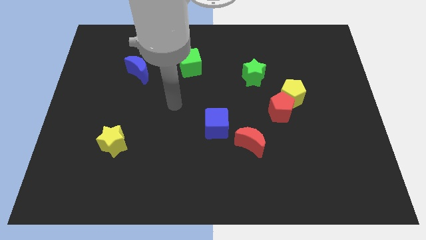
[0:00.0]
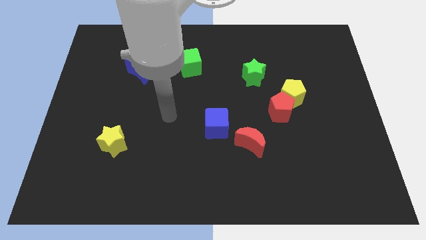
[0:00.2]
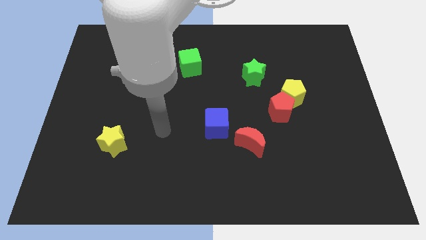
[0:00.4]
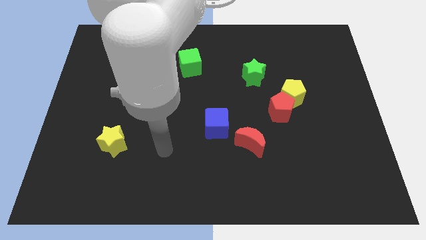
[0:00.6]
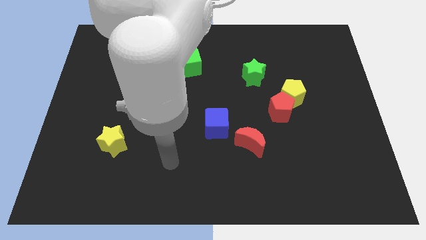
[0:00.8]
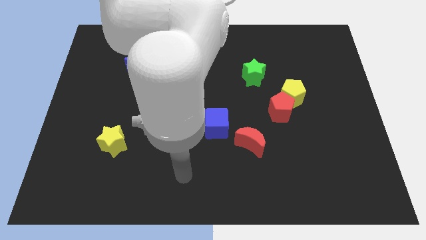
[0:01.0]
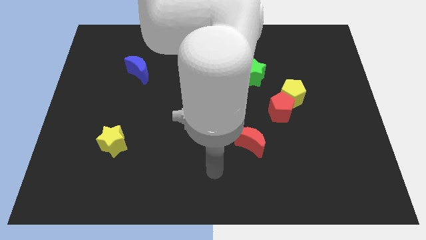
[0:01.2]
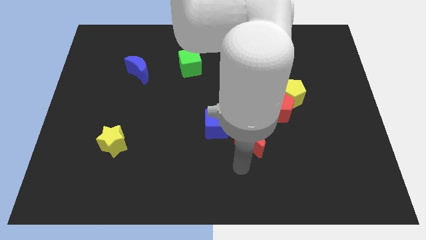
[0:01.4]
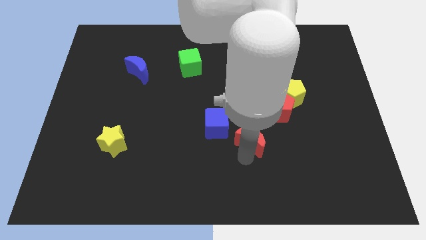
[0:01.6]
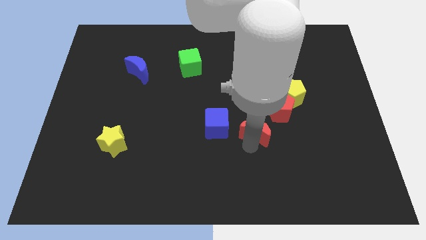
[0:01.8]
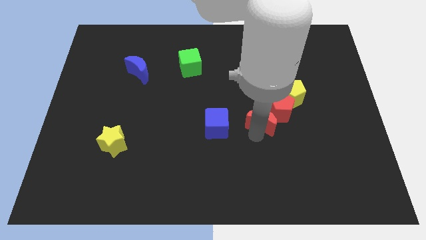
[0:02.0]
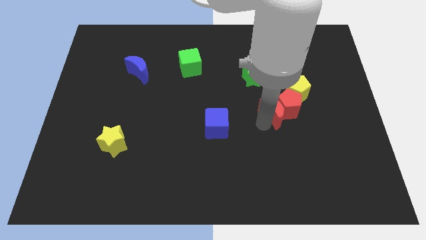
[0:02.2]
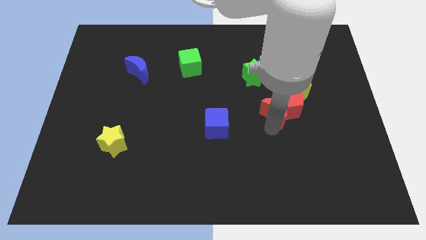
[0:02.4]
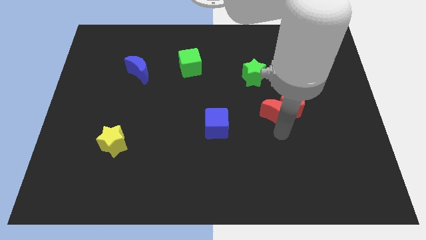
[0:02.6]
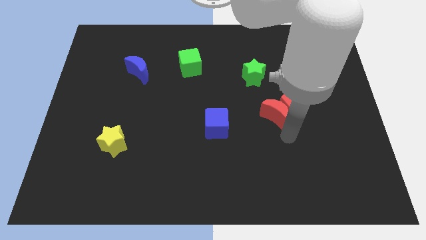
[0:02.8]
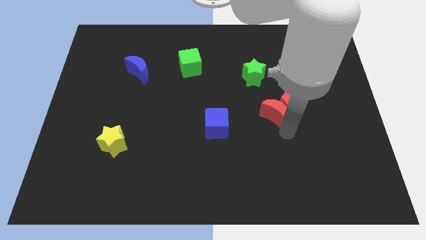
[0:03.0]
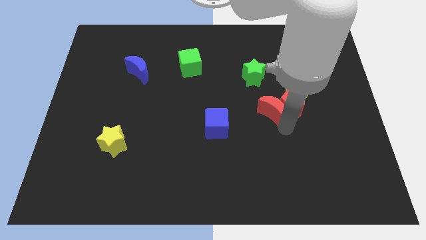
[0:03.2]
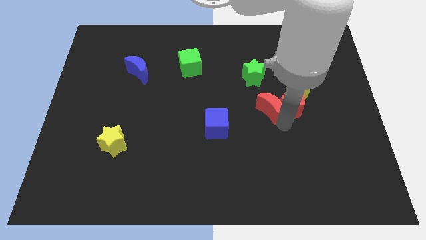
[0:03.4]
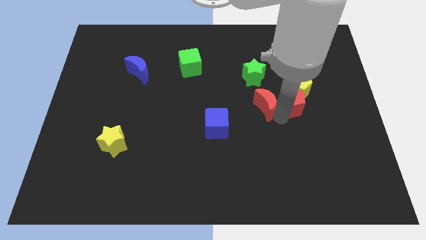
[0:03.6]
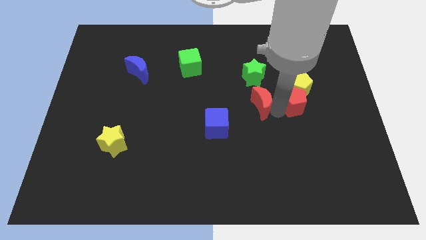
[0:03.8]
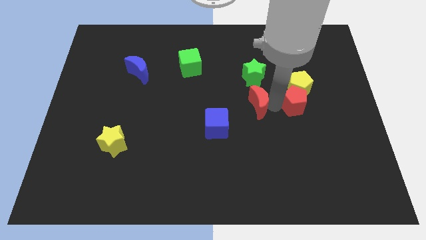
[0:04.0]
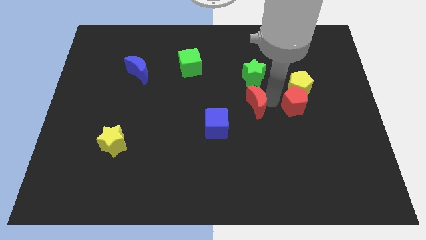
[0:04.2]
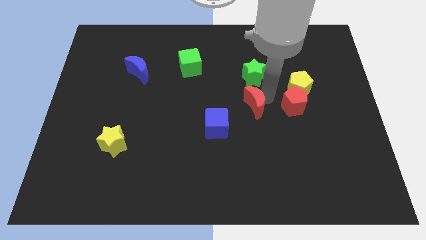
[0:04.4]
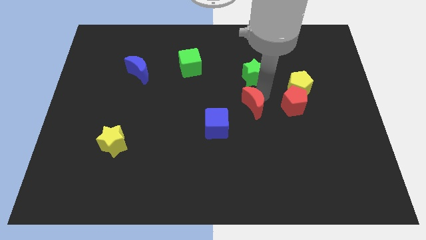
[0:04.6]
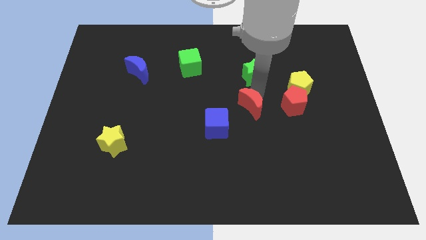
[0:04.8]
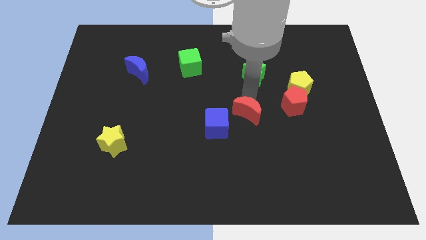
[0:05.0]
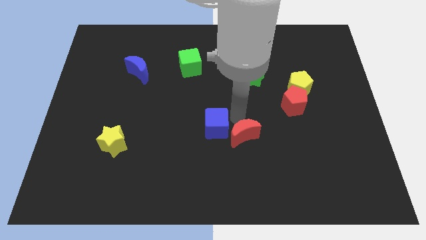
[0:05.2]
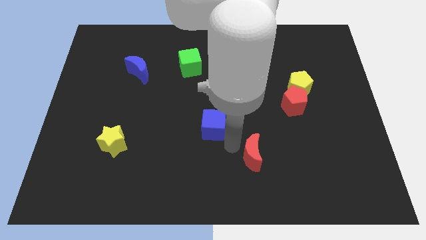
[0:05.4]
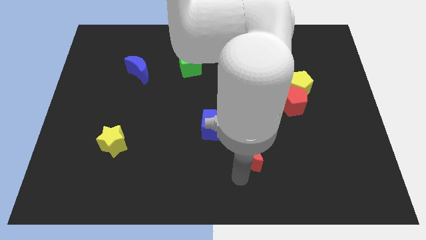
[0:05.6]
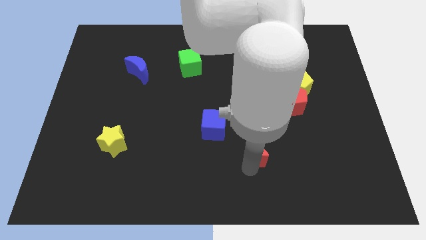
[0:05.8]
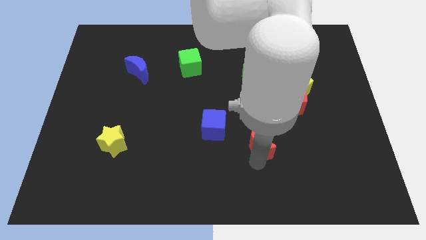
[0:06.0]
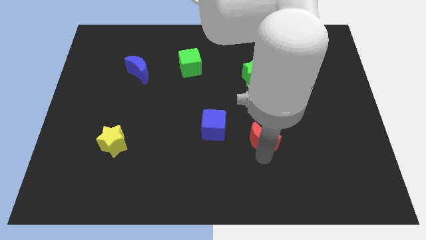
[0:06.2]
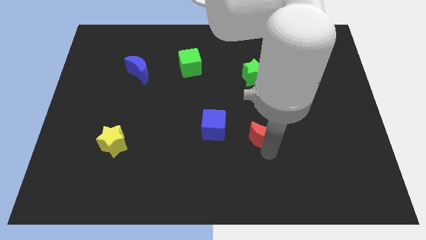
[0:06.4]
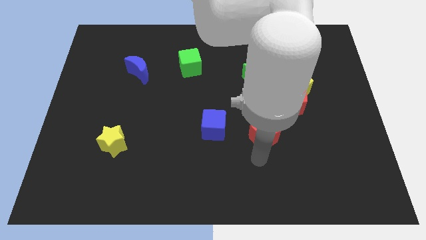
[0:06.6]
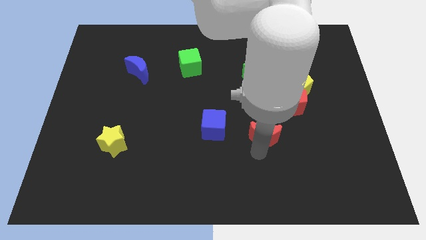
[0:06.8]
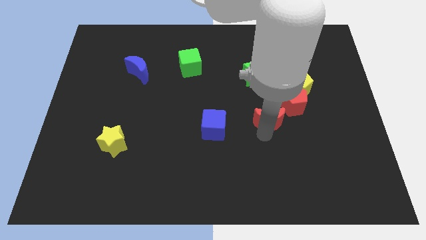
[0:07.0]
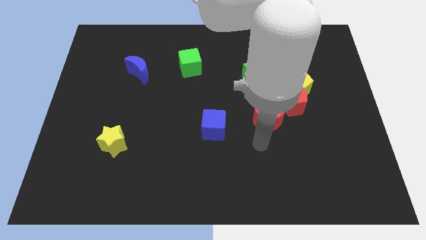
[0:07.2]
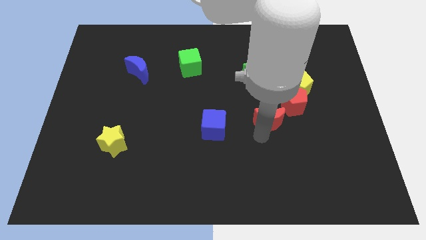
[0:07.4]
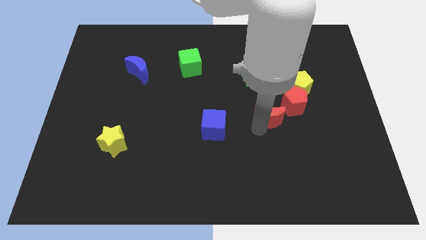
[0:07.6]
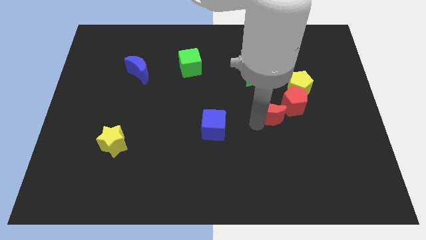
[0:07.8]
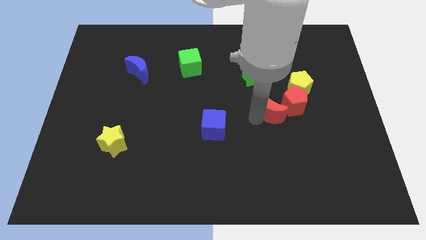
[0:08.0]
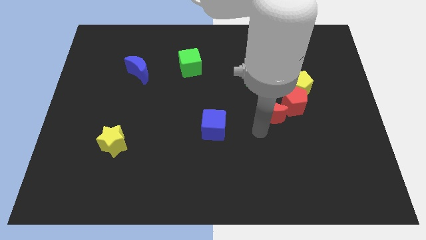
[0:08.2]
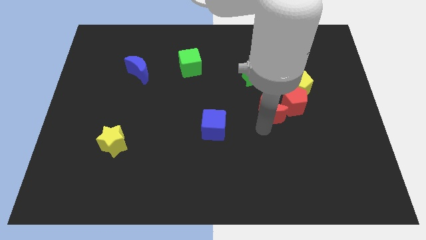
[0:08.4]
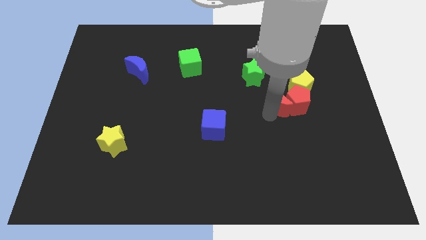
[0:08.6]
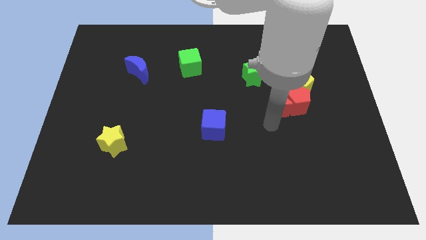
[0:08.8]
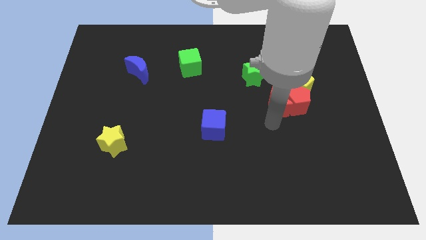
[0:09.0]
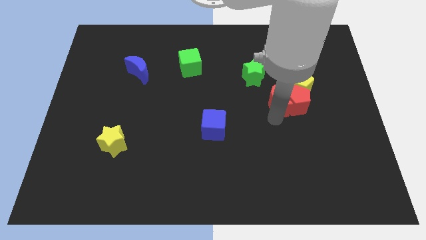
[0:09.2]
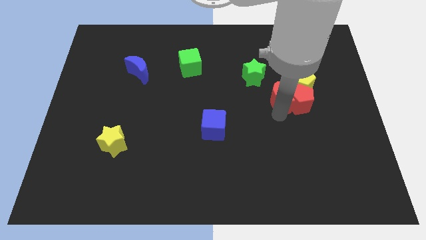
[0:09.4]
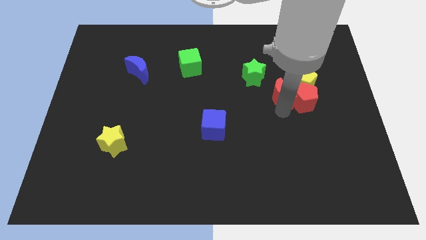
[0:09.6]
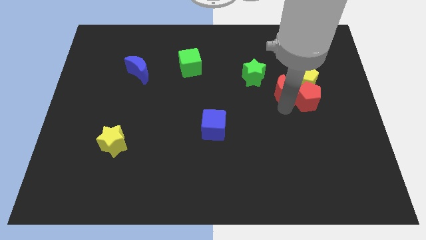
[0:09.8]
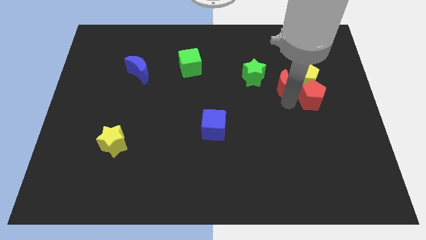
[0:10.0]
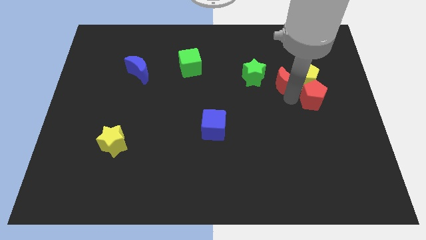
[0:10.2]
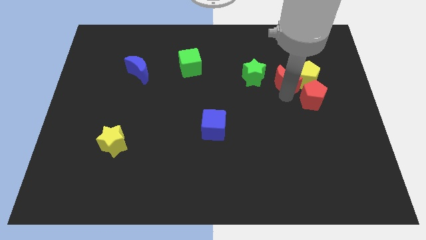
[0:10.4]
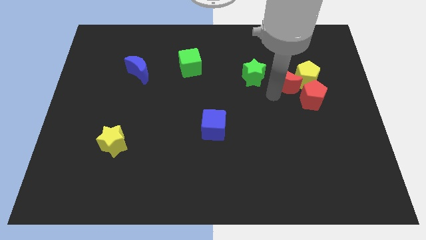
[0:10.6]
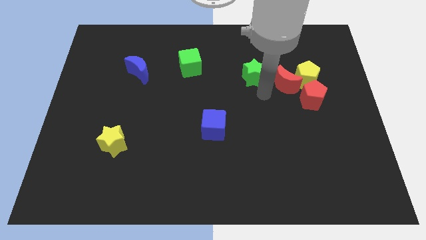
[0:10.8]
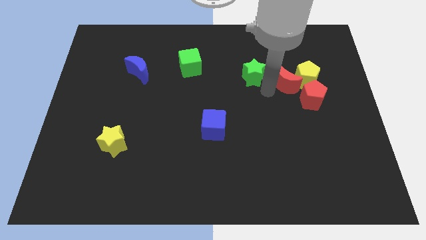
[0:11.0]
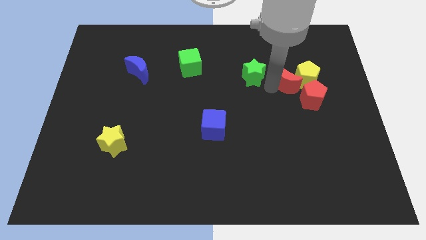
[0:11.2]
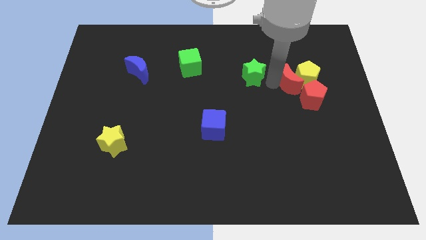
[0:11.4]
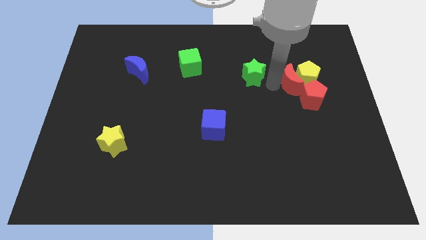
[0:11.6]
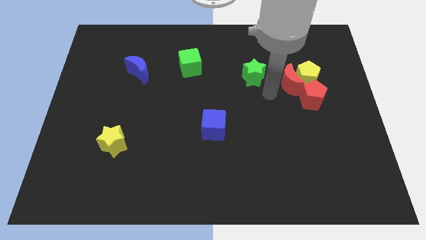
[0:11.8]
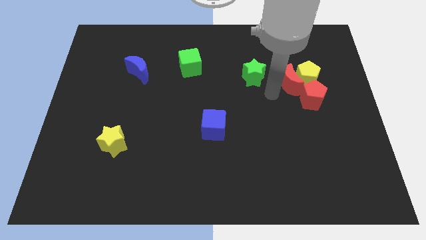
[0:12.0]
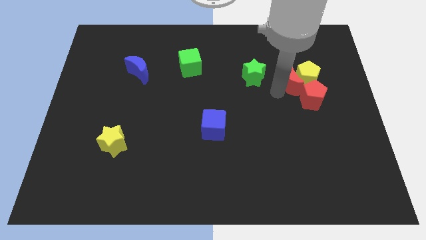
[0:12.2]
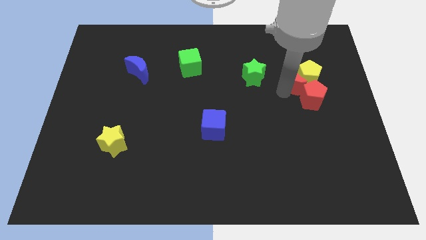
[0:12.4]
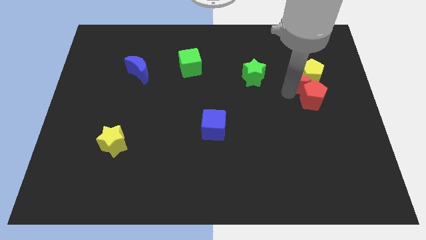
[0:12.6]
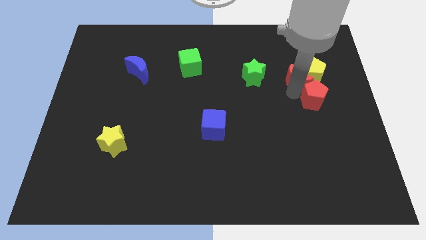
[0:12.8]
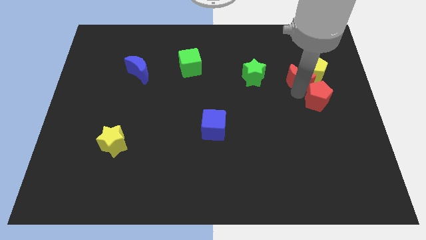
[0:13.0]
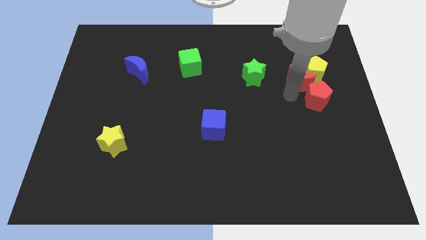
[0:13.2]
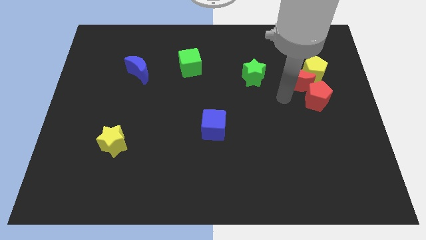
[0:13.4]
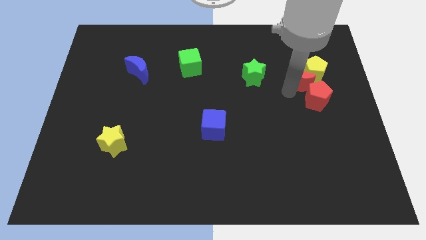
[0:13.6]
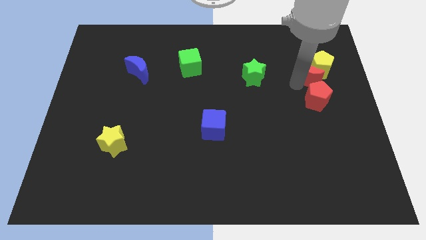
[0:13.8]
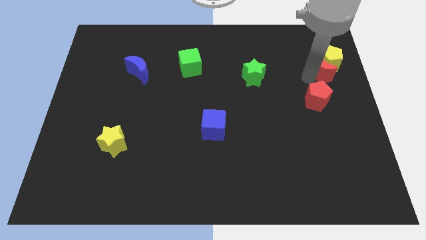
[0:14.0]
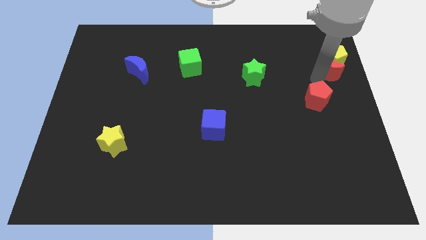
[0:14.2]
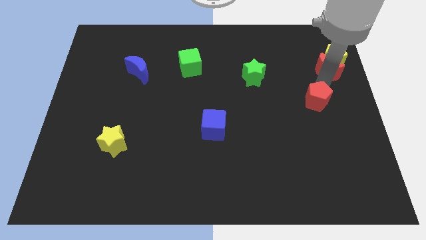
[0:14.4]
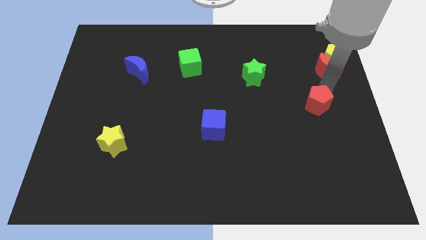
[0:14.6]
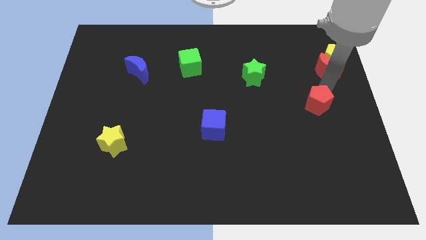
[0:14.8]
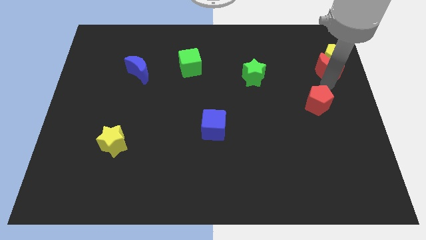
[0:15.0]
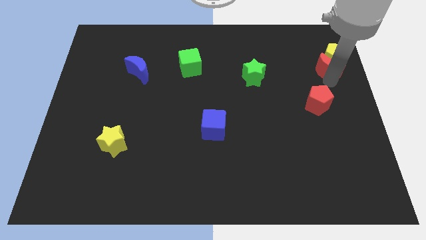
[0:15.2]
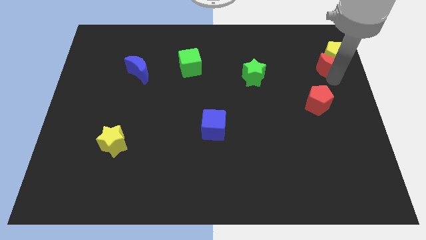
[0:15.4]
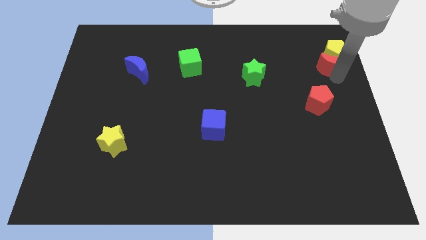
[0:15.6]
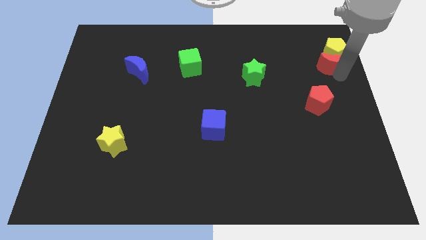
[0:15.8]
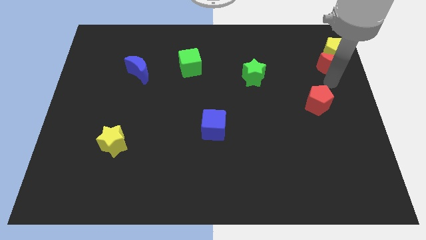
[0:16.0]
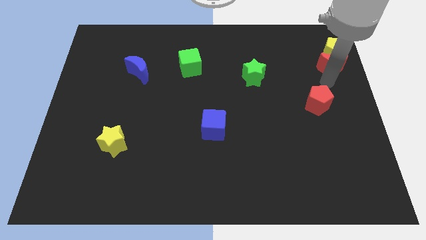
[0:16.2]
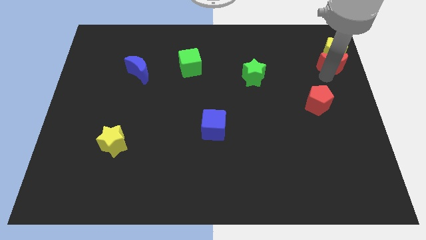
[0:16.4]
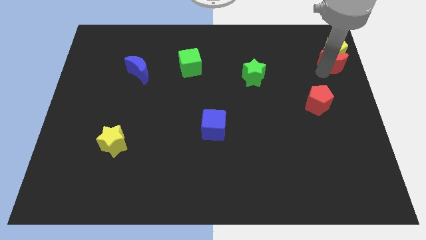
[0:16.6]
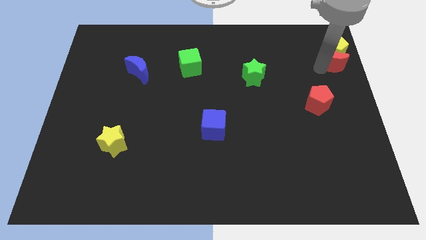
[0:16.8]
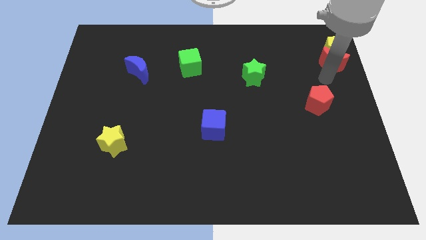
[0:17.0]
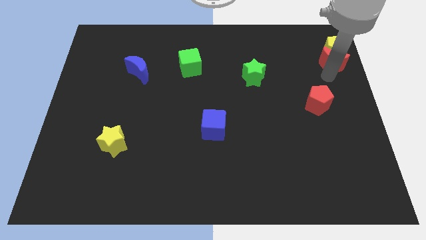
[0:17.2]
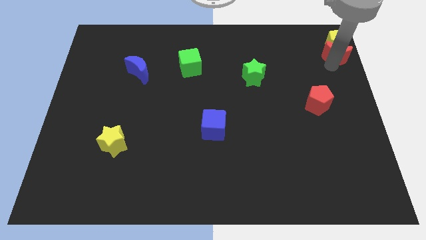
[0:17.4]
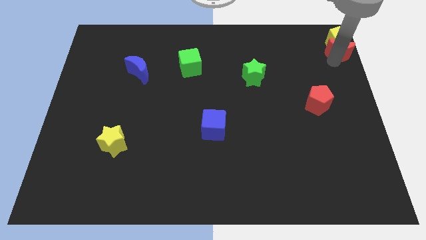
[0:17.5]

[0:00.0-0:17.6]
slide the red moon to the top right of the board
